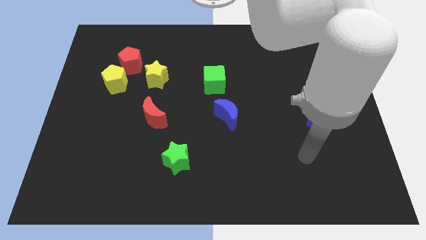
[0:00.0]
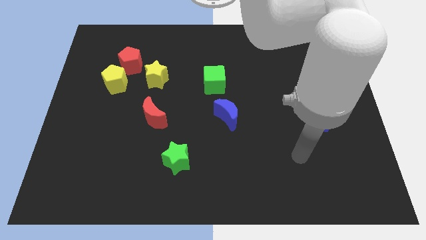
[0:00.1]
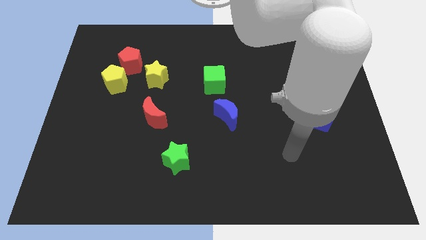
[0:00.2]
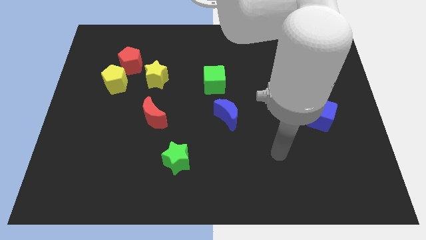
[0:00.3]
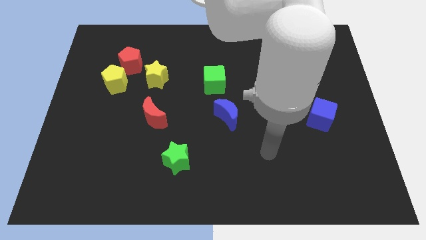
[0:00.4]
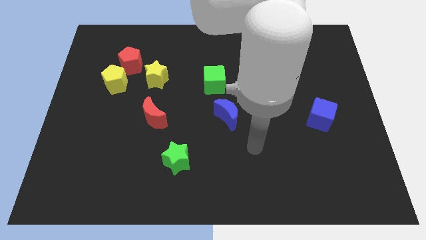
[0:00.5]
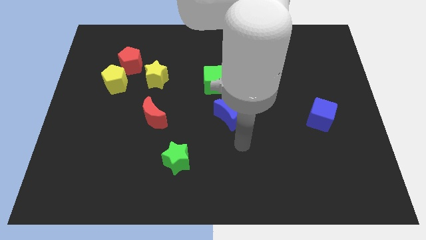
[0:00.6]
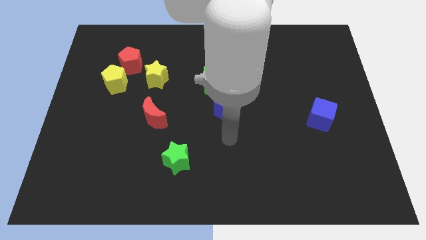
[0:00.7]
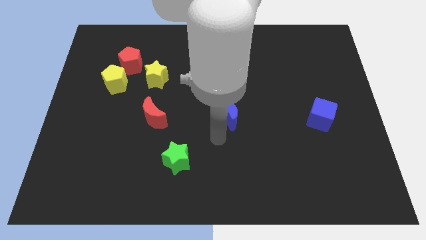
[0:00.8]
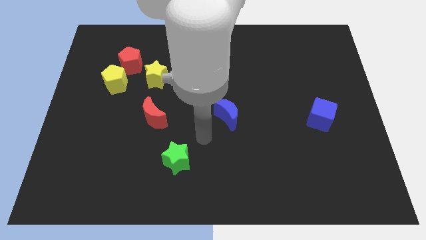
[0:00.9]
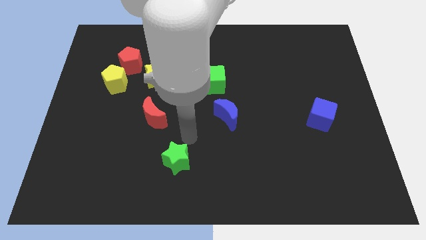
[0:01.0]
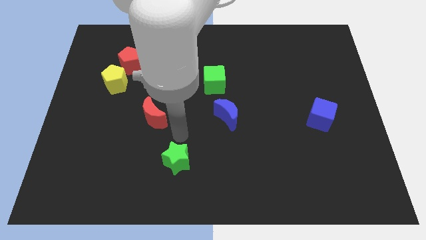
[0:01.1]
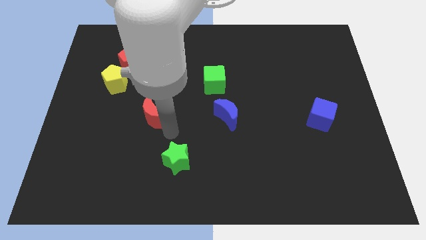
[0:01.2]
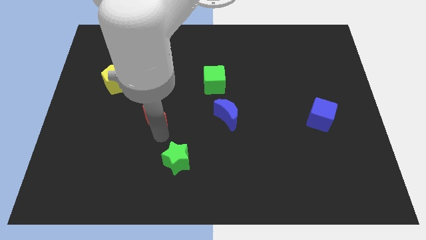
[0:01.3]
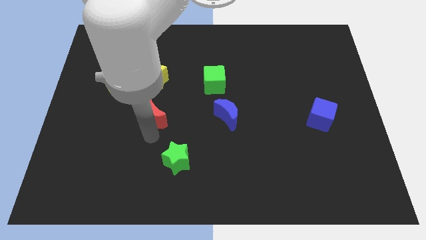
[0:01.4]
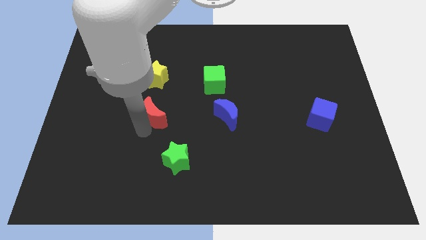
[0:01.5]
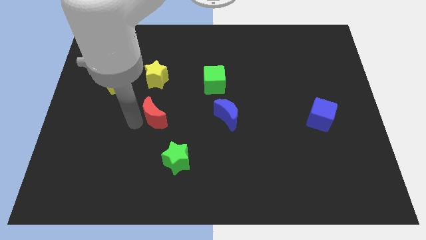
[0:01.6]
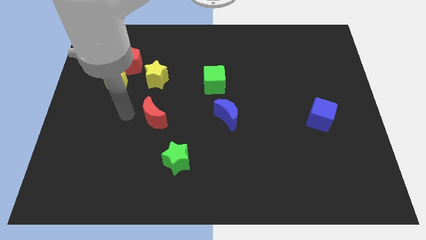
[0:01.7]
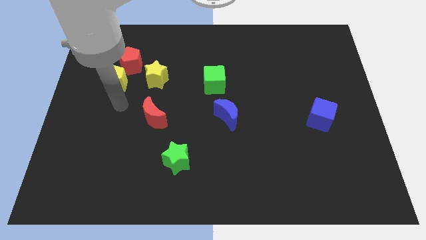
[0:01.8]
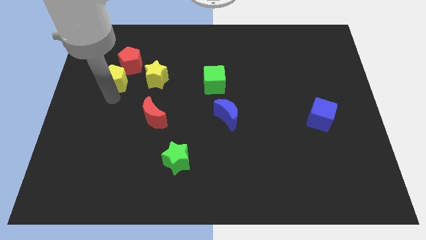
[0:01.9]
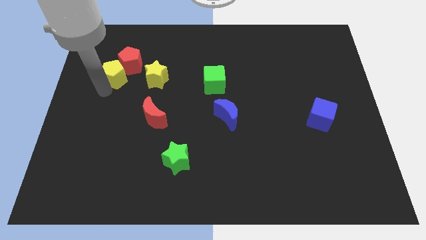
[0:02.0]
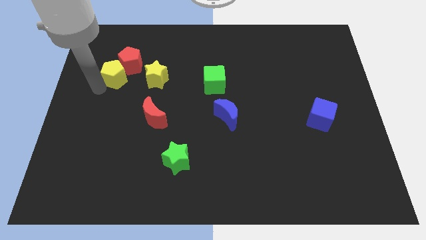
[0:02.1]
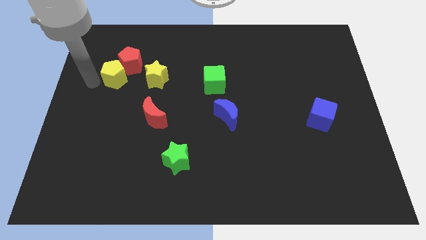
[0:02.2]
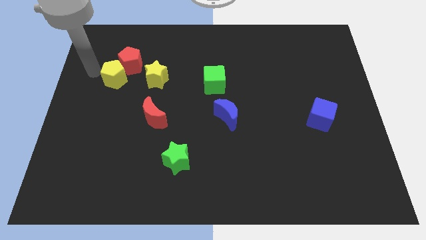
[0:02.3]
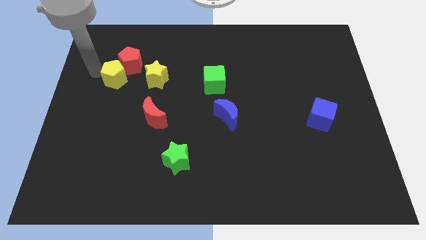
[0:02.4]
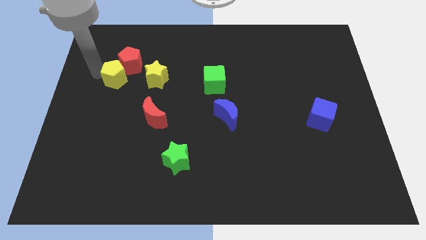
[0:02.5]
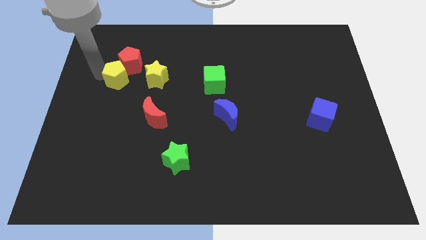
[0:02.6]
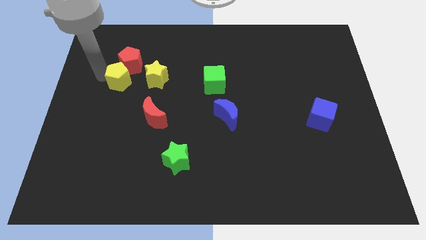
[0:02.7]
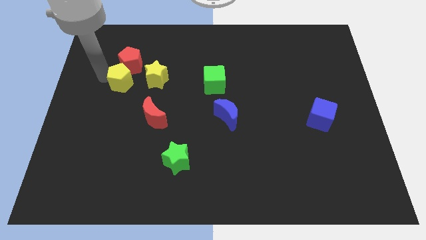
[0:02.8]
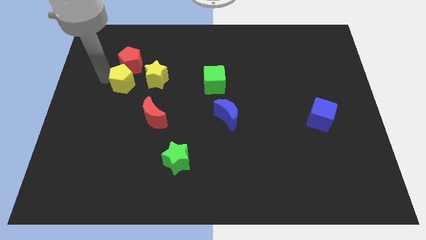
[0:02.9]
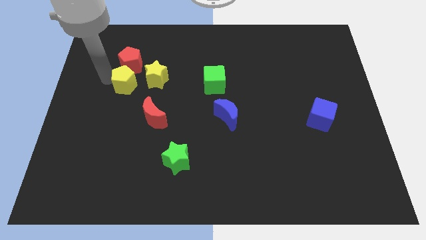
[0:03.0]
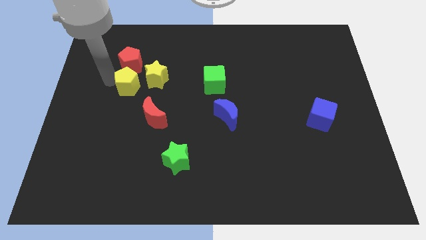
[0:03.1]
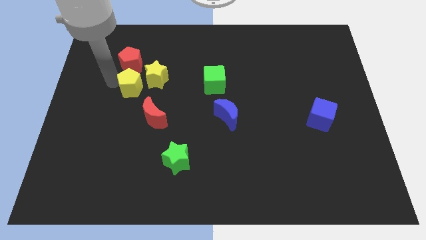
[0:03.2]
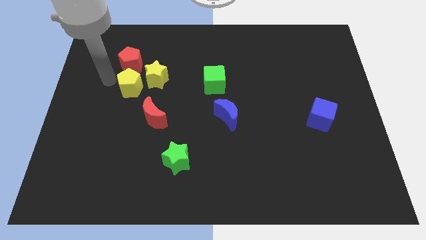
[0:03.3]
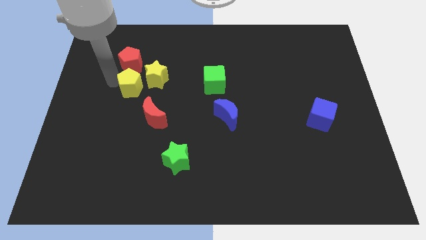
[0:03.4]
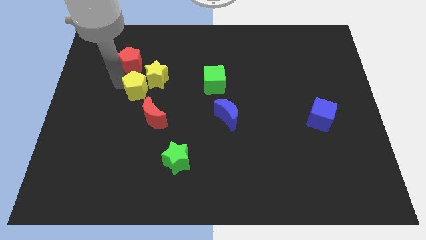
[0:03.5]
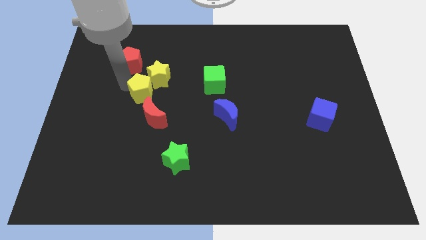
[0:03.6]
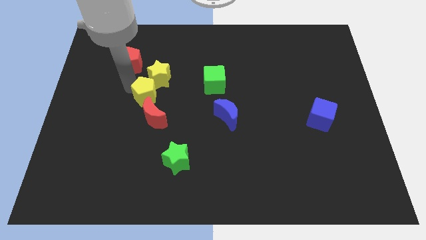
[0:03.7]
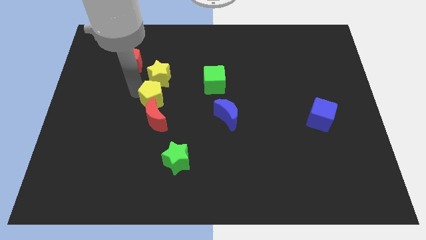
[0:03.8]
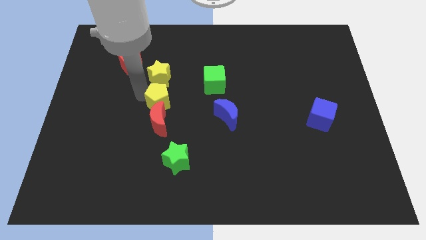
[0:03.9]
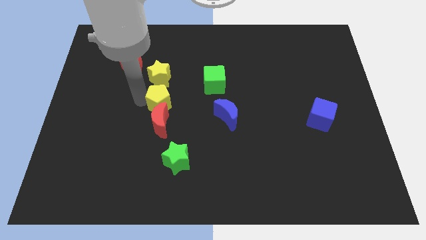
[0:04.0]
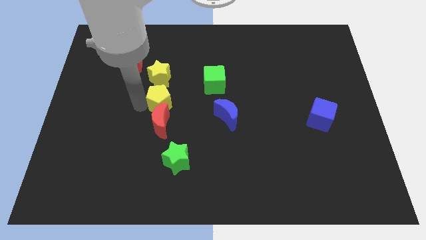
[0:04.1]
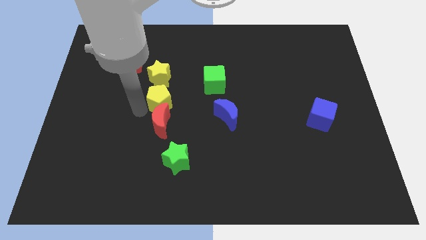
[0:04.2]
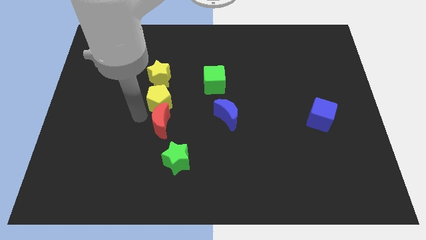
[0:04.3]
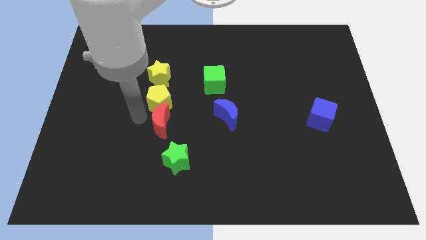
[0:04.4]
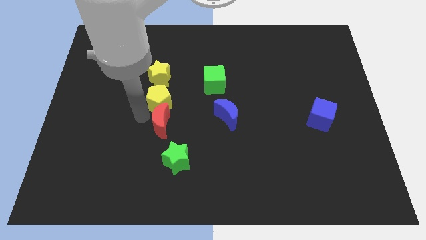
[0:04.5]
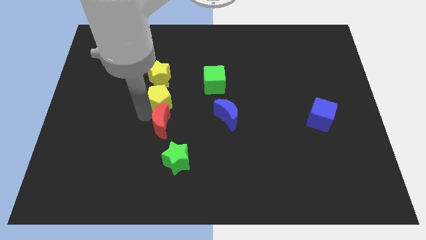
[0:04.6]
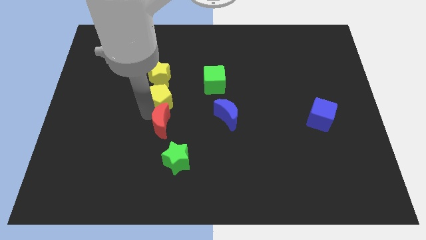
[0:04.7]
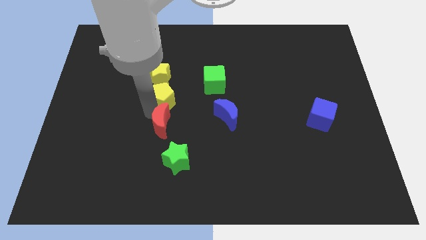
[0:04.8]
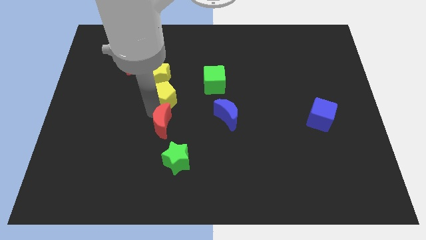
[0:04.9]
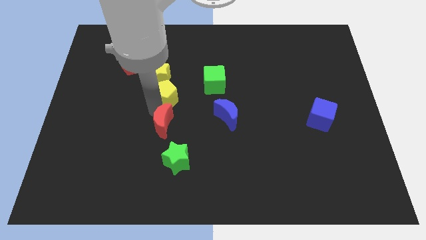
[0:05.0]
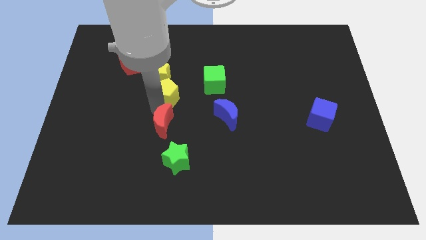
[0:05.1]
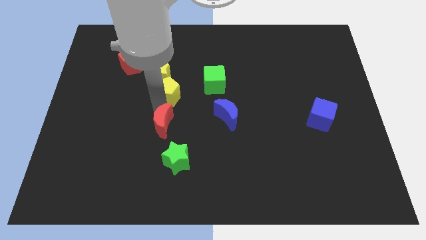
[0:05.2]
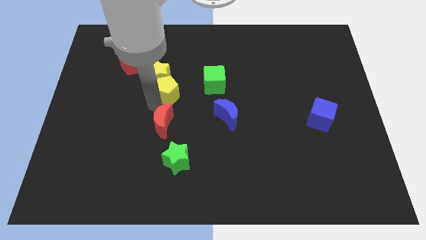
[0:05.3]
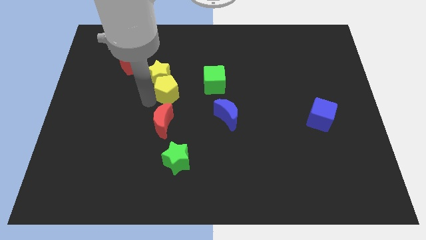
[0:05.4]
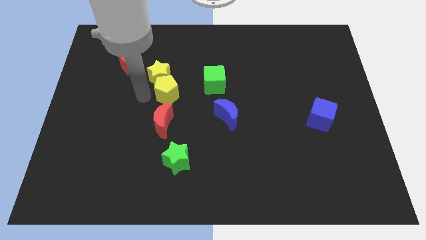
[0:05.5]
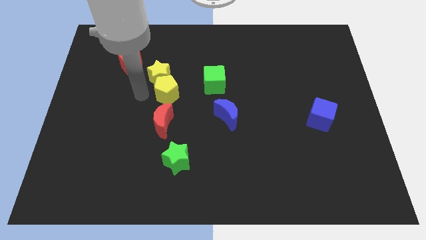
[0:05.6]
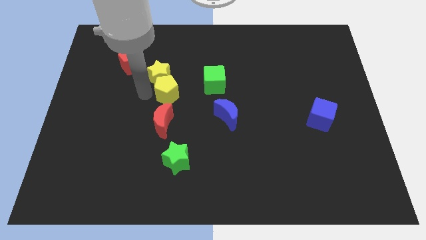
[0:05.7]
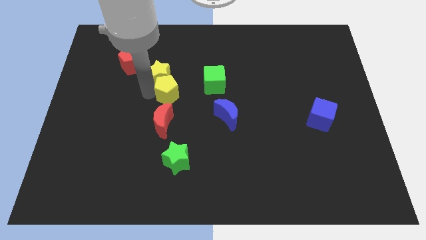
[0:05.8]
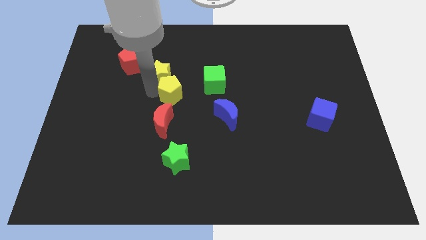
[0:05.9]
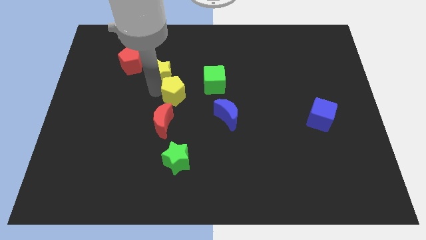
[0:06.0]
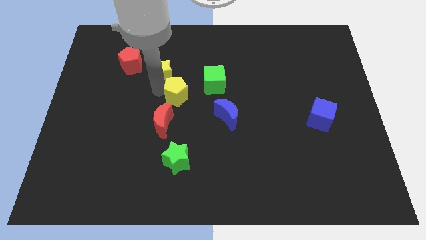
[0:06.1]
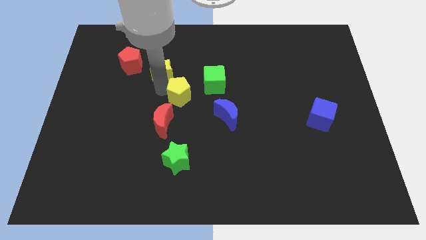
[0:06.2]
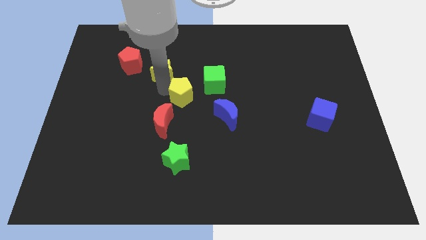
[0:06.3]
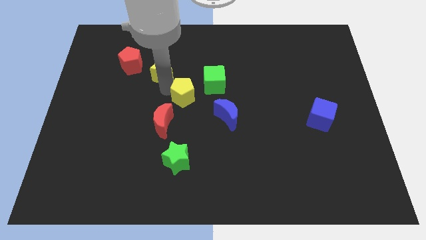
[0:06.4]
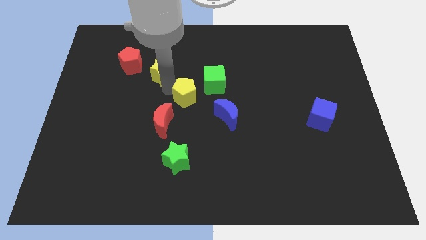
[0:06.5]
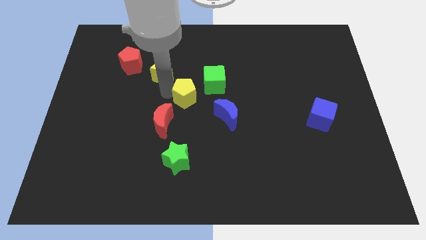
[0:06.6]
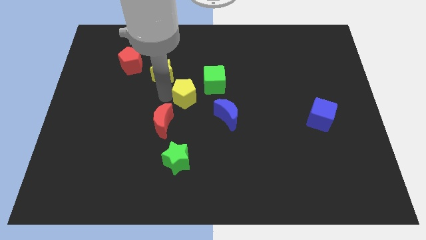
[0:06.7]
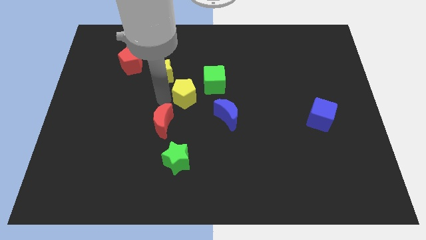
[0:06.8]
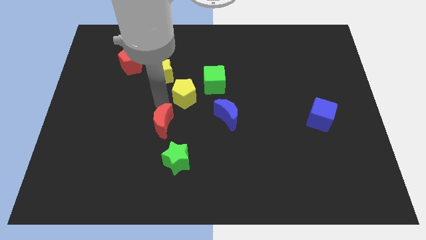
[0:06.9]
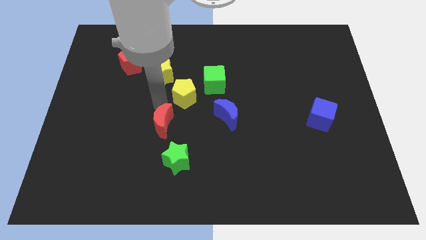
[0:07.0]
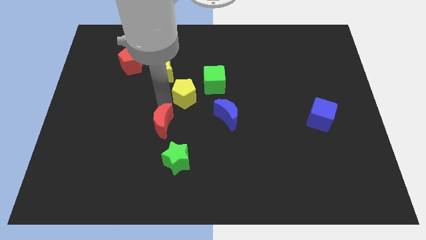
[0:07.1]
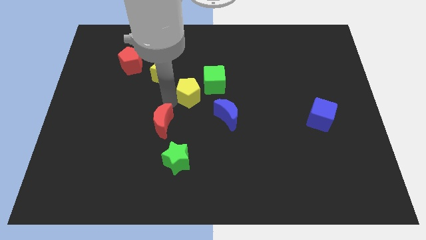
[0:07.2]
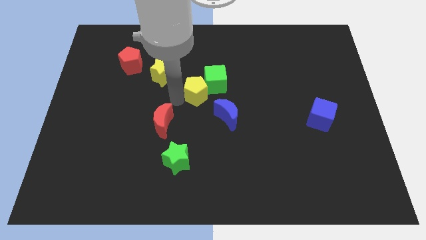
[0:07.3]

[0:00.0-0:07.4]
push the yellow pentagon to the green cube

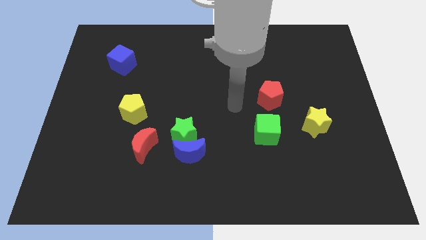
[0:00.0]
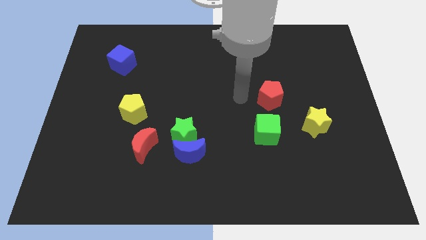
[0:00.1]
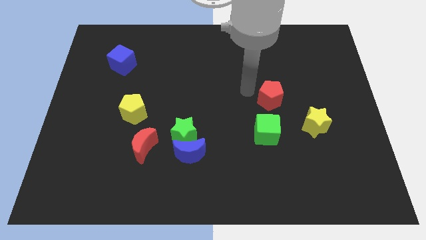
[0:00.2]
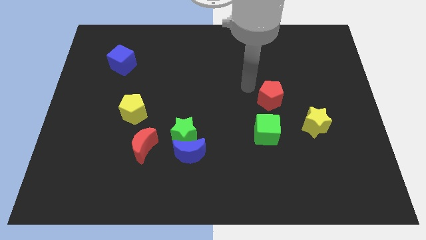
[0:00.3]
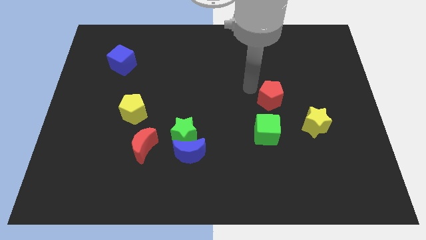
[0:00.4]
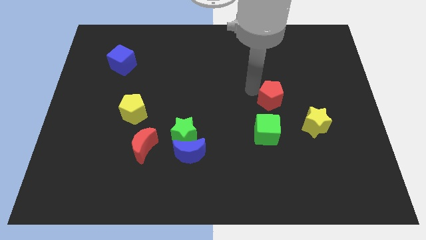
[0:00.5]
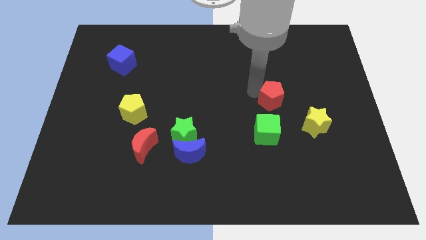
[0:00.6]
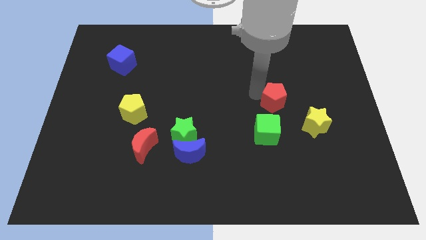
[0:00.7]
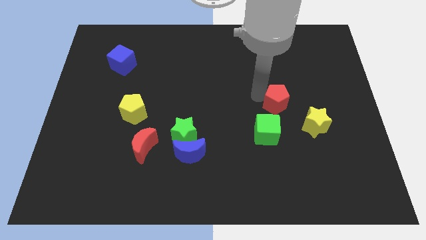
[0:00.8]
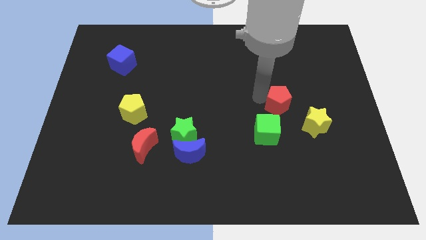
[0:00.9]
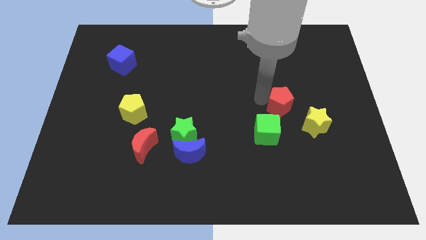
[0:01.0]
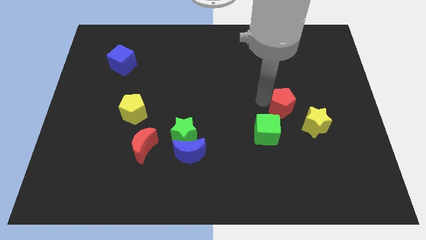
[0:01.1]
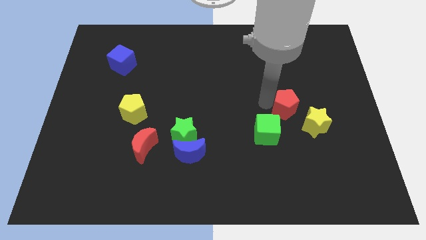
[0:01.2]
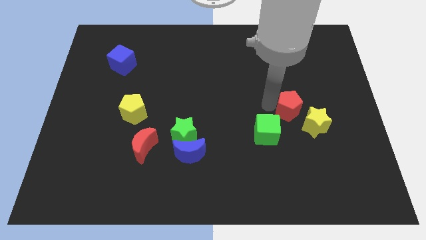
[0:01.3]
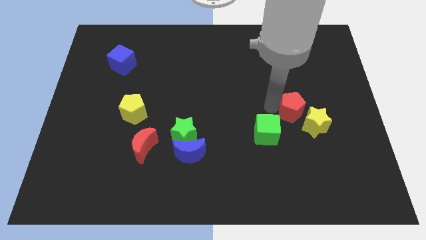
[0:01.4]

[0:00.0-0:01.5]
slide the red pentagon next to the yellow star
